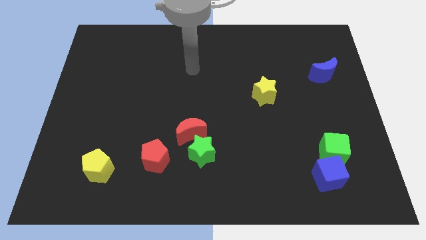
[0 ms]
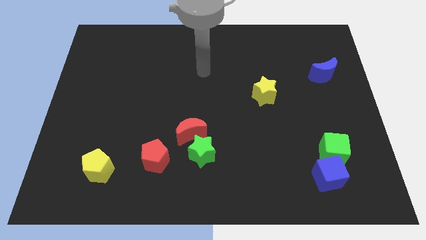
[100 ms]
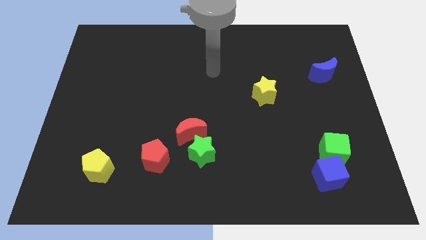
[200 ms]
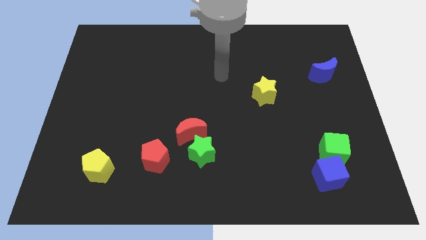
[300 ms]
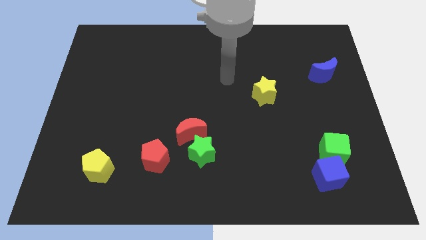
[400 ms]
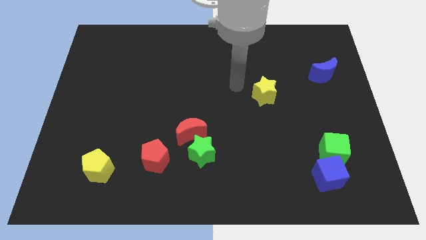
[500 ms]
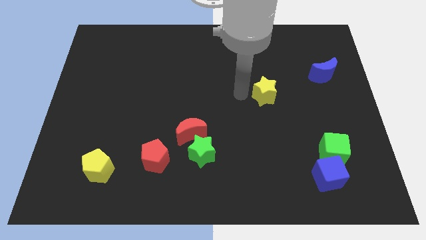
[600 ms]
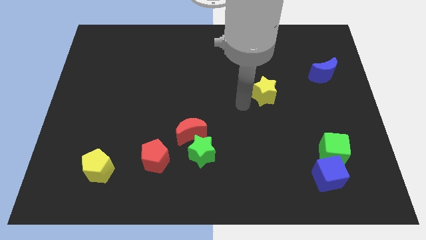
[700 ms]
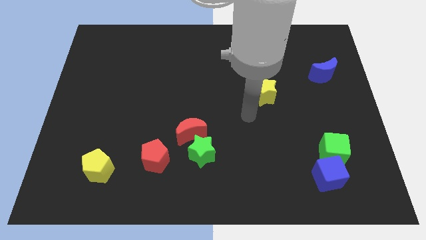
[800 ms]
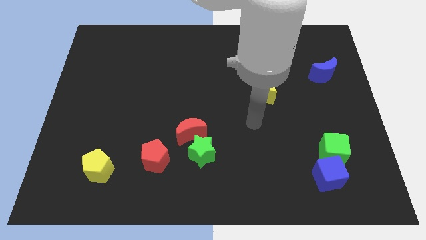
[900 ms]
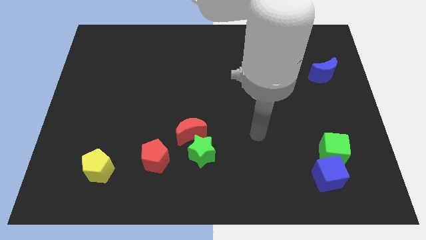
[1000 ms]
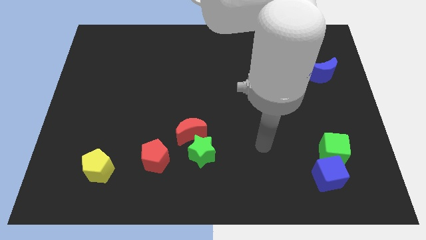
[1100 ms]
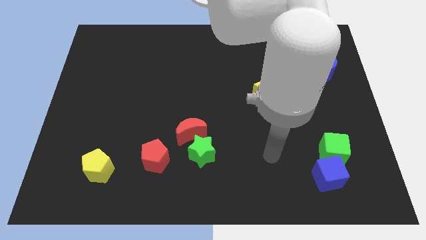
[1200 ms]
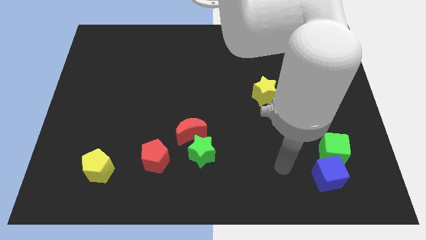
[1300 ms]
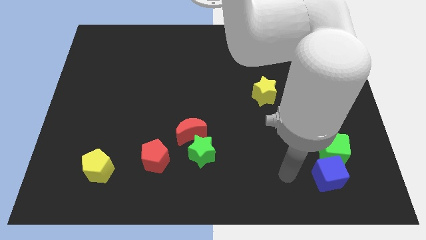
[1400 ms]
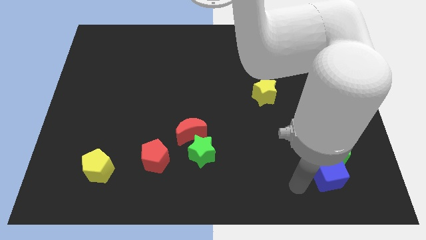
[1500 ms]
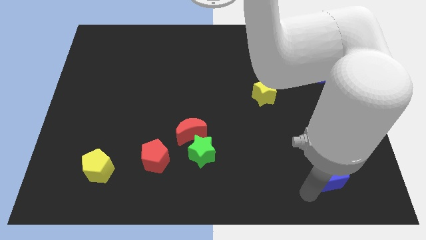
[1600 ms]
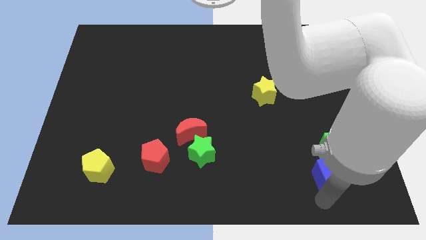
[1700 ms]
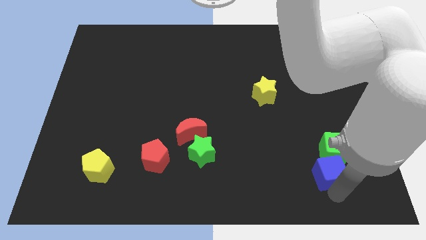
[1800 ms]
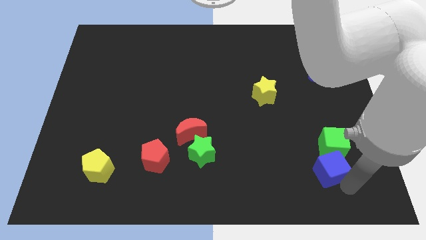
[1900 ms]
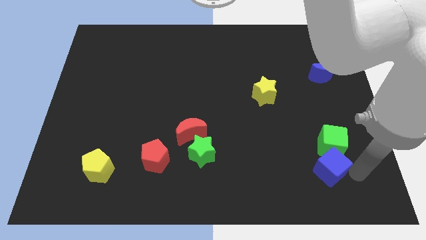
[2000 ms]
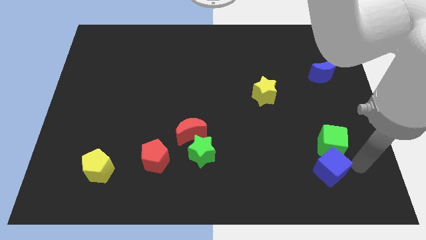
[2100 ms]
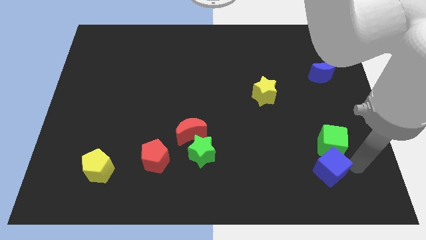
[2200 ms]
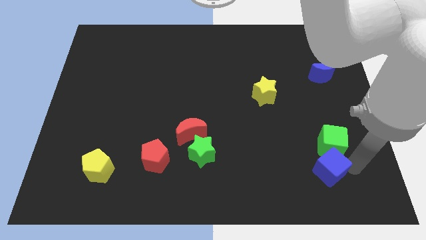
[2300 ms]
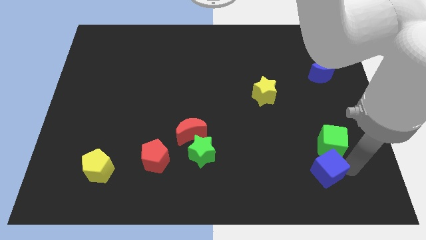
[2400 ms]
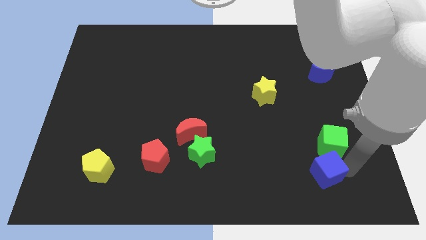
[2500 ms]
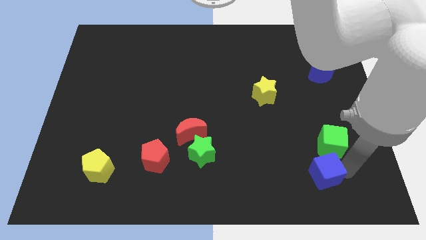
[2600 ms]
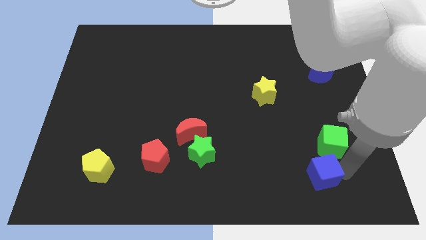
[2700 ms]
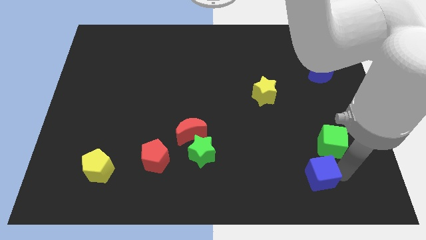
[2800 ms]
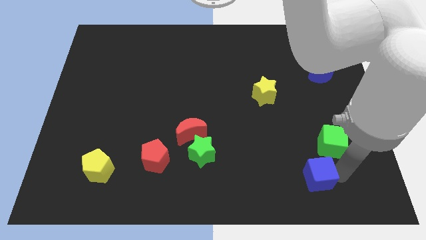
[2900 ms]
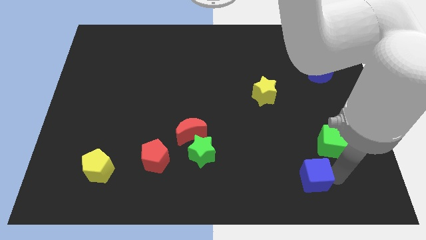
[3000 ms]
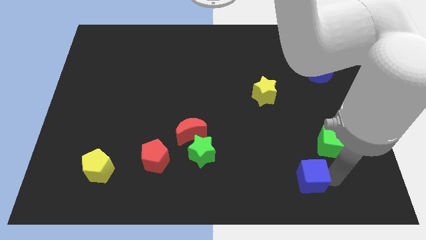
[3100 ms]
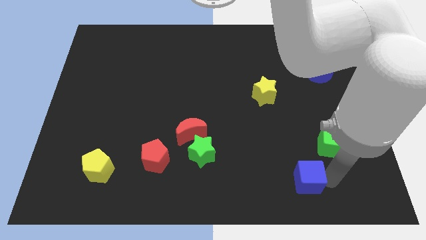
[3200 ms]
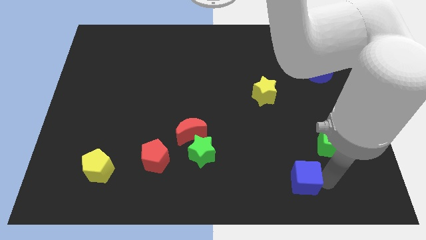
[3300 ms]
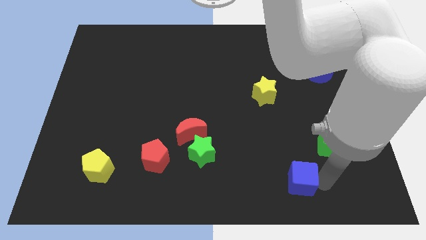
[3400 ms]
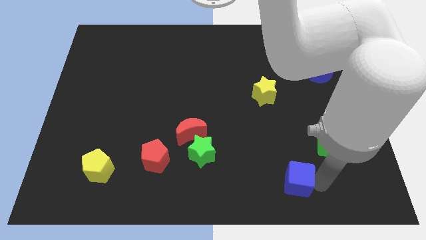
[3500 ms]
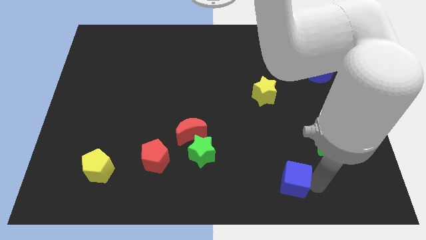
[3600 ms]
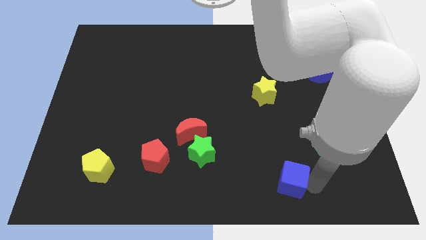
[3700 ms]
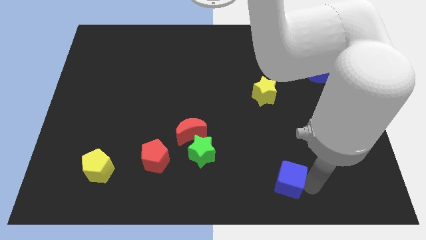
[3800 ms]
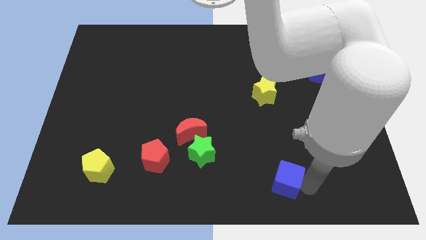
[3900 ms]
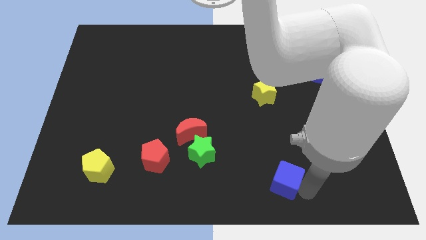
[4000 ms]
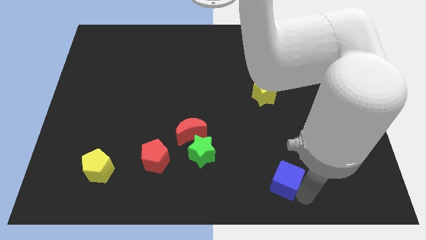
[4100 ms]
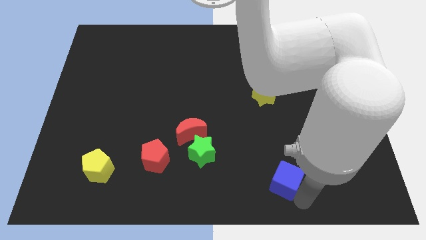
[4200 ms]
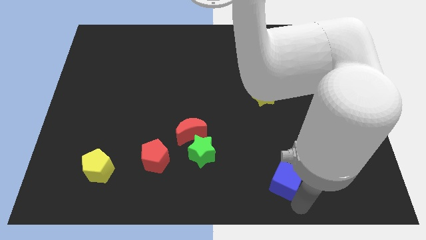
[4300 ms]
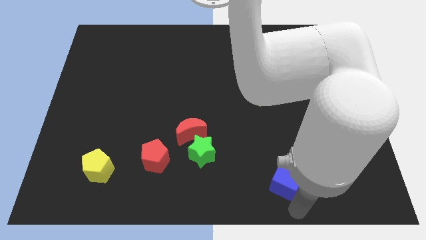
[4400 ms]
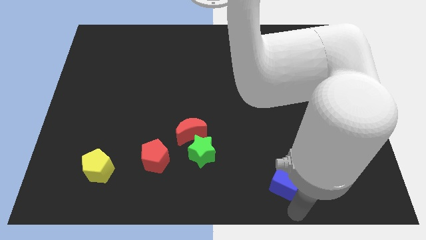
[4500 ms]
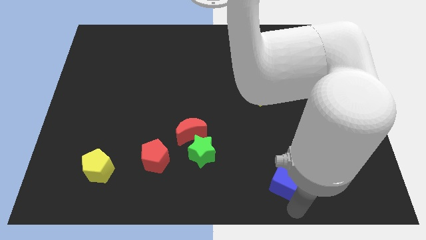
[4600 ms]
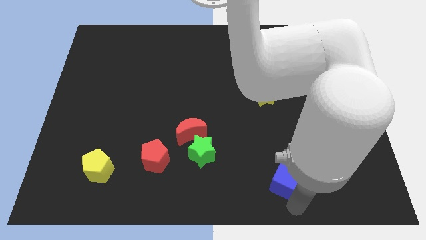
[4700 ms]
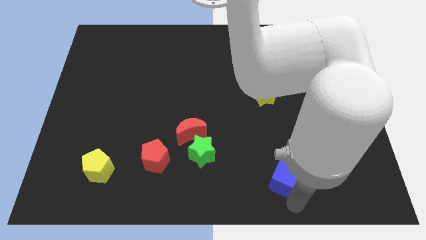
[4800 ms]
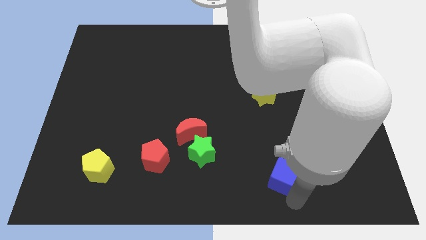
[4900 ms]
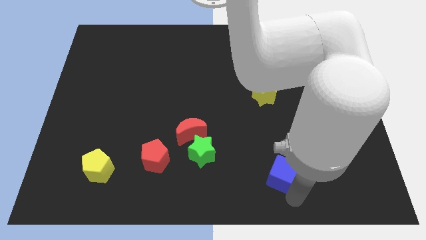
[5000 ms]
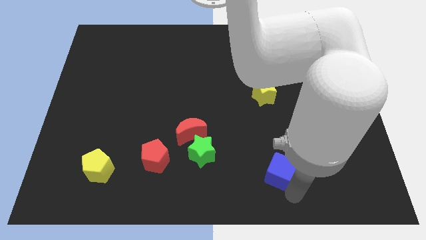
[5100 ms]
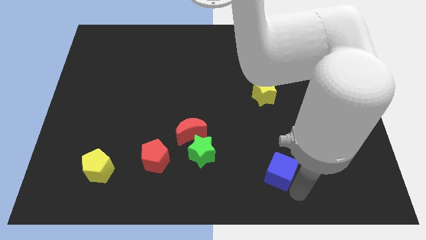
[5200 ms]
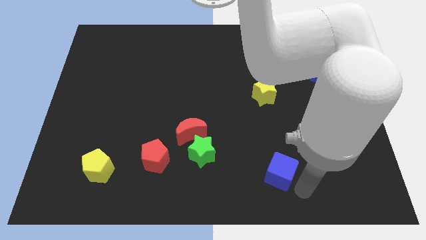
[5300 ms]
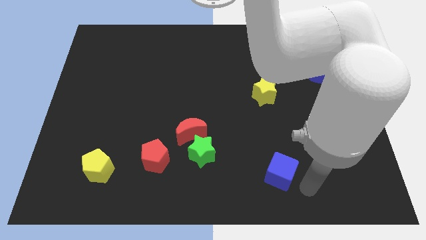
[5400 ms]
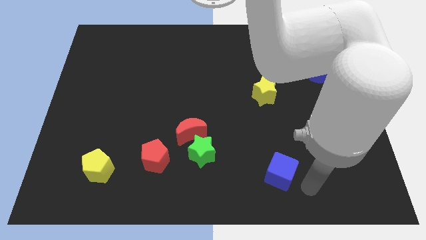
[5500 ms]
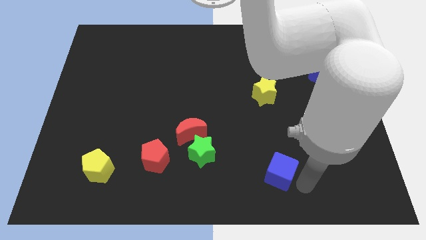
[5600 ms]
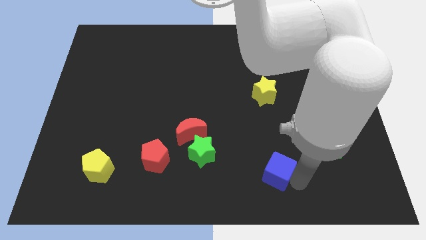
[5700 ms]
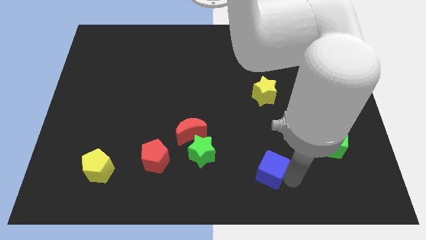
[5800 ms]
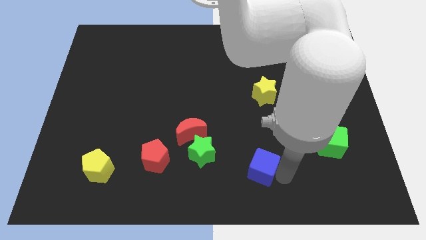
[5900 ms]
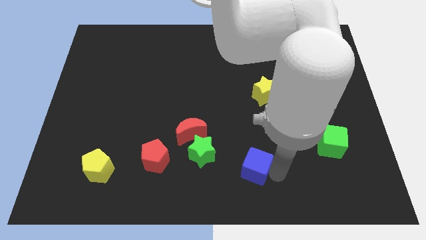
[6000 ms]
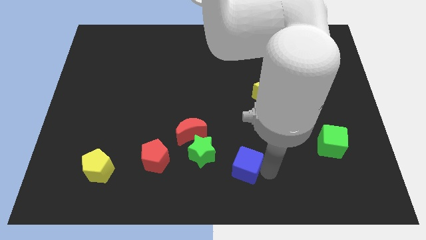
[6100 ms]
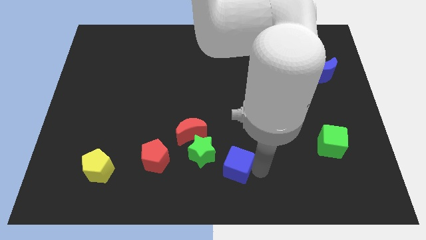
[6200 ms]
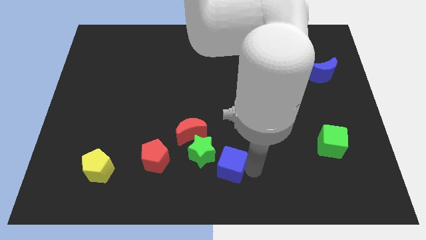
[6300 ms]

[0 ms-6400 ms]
put the blue cube right of the red pentagon
